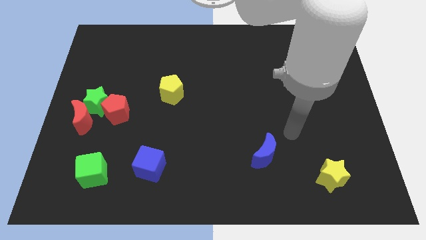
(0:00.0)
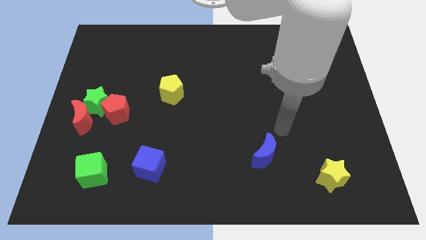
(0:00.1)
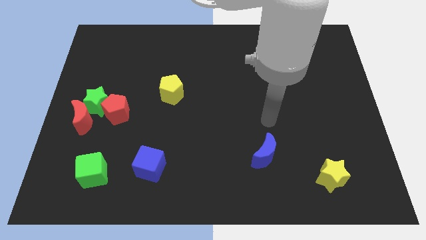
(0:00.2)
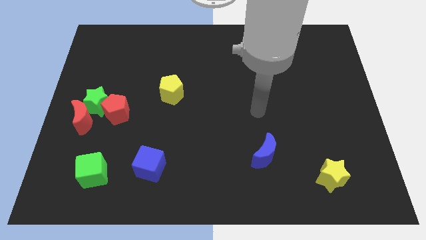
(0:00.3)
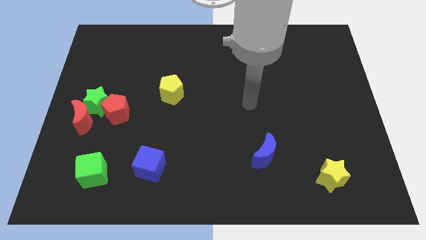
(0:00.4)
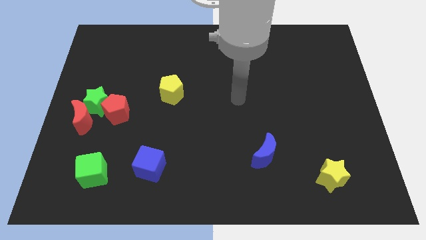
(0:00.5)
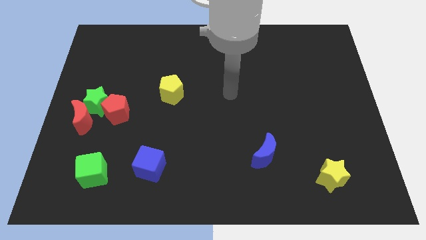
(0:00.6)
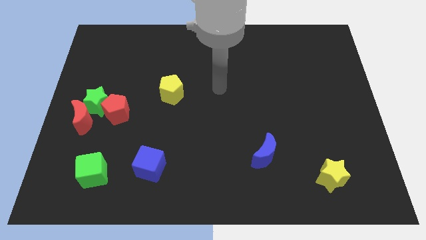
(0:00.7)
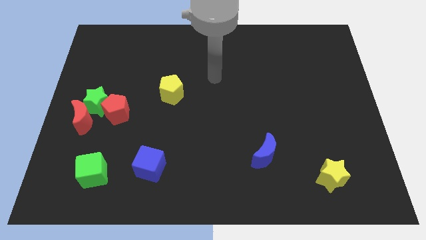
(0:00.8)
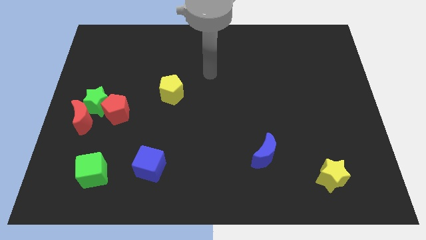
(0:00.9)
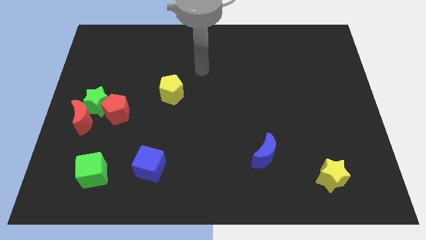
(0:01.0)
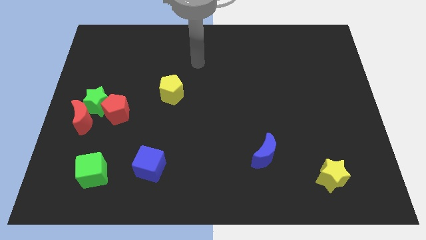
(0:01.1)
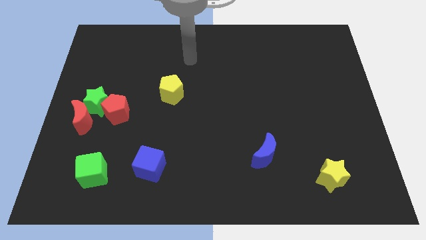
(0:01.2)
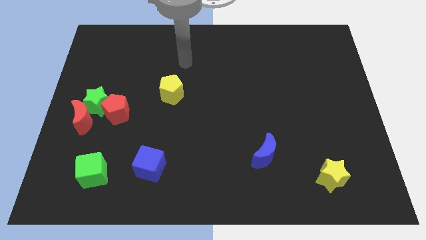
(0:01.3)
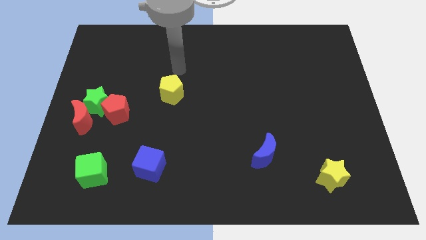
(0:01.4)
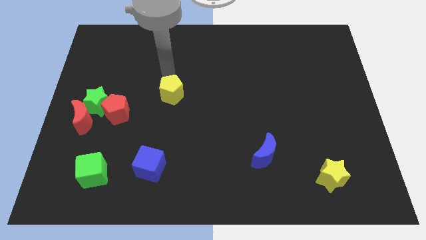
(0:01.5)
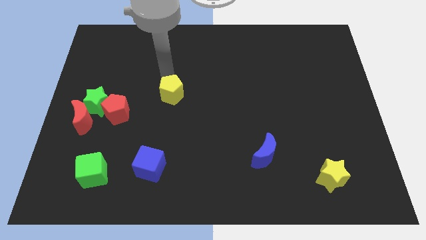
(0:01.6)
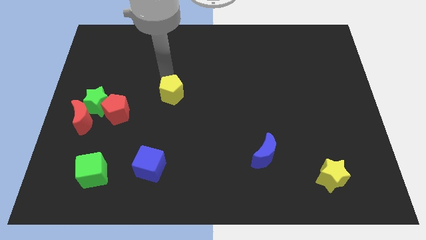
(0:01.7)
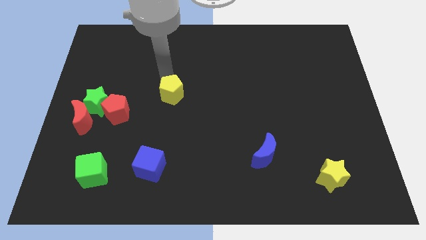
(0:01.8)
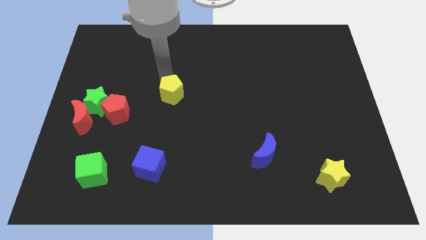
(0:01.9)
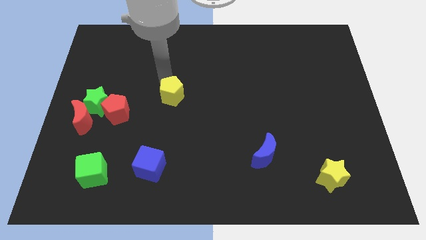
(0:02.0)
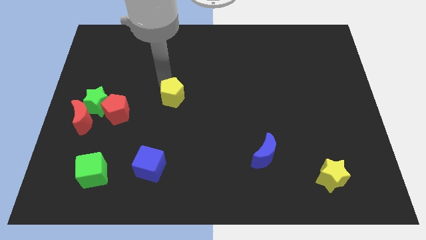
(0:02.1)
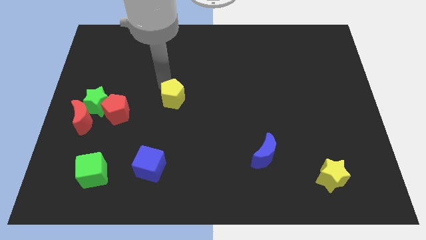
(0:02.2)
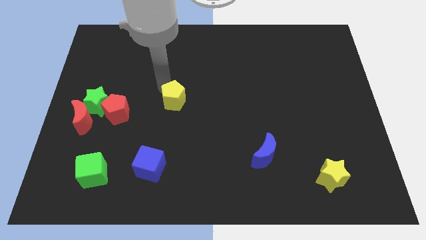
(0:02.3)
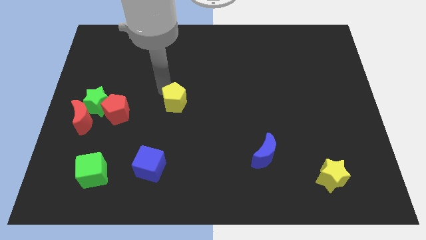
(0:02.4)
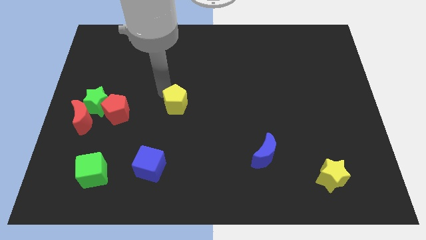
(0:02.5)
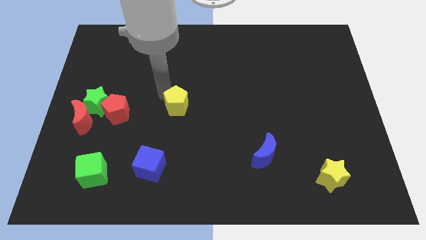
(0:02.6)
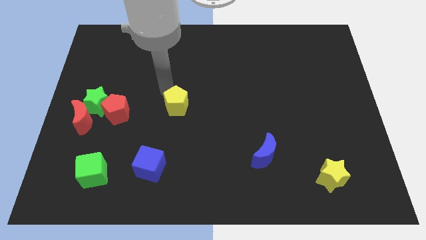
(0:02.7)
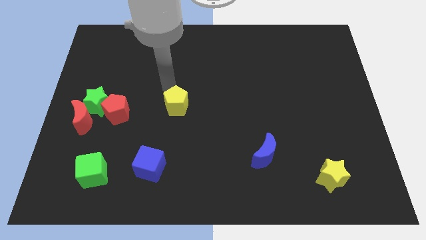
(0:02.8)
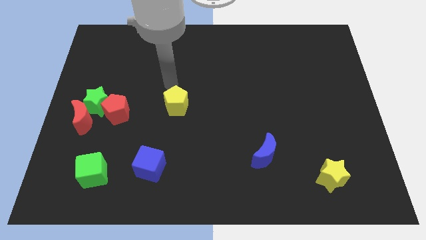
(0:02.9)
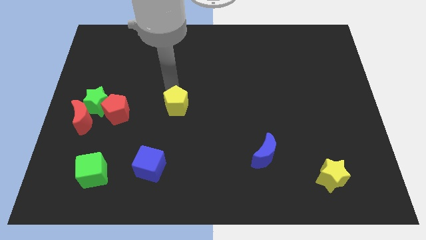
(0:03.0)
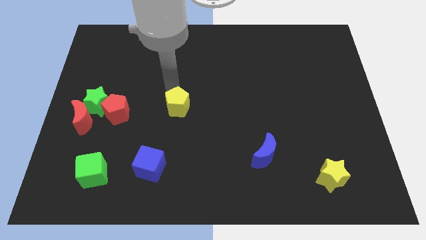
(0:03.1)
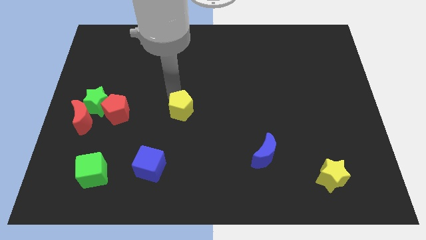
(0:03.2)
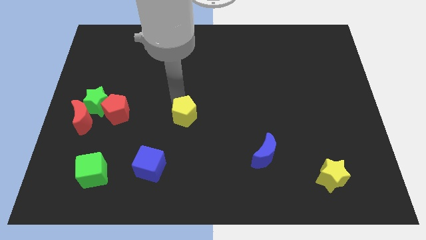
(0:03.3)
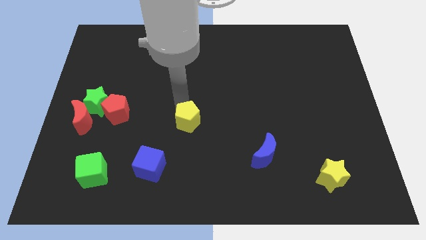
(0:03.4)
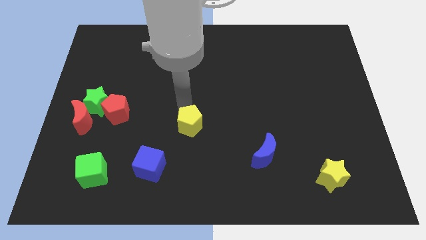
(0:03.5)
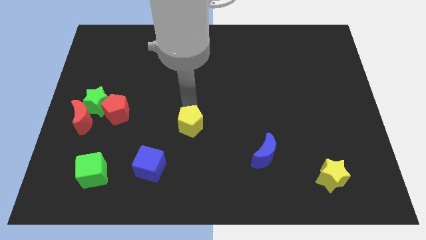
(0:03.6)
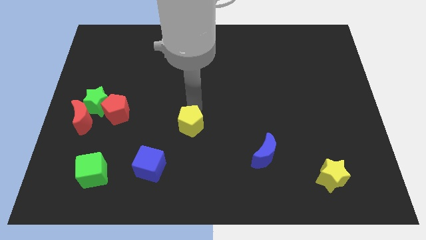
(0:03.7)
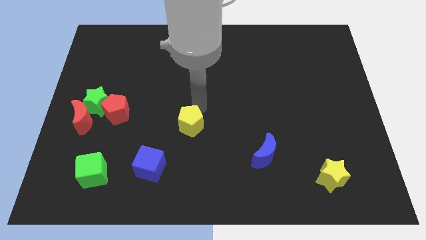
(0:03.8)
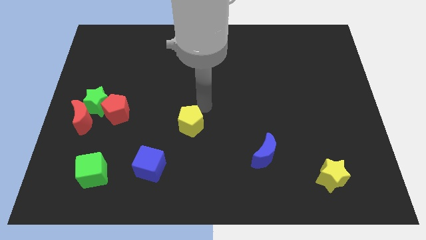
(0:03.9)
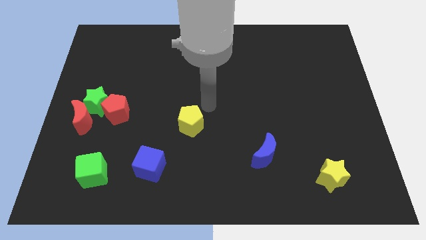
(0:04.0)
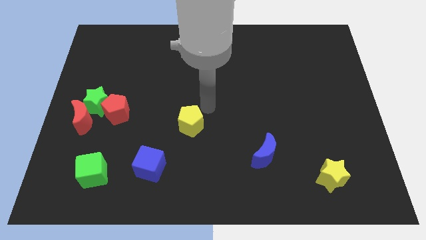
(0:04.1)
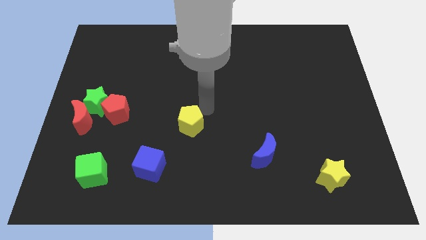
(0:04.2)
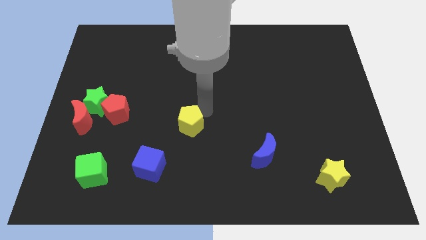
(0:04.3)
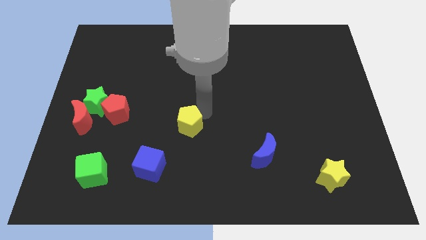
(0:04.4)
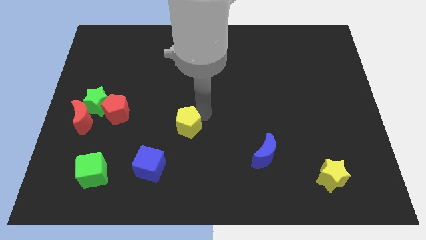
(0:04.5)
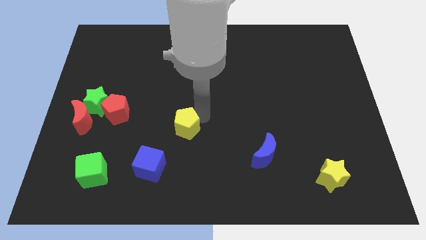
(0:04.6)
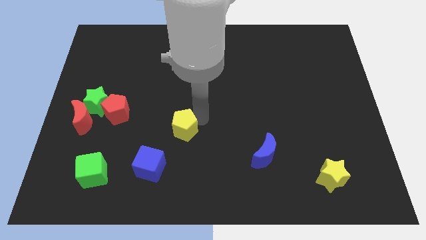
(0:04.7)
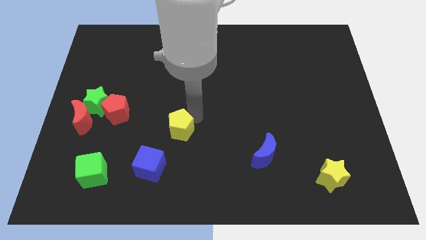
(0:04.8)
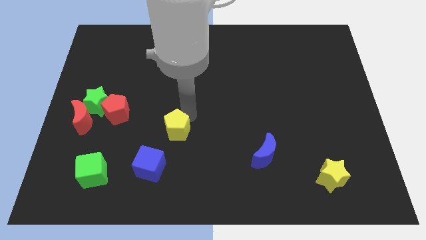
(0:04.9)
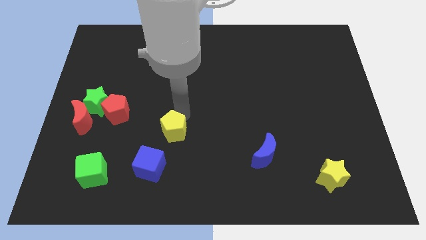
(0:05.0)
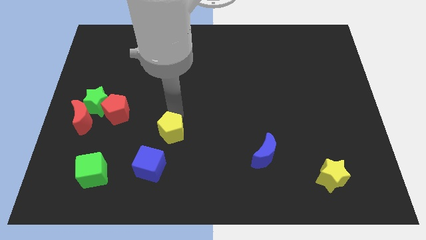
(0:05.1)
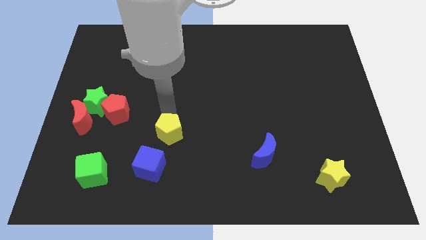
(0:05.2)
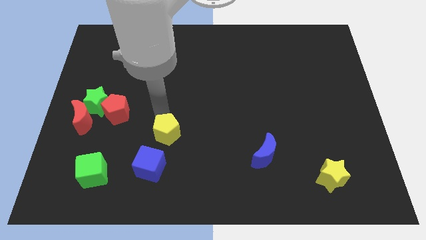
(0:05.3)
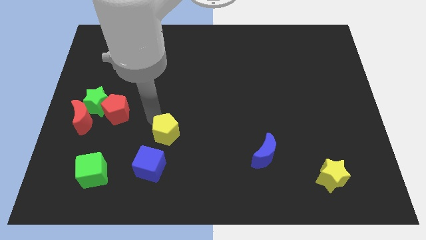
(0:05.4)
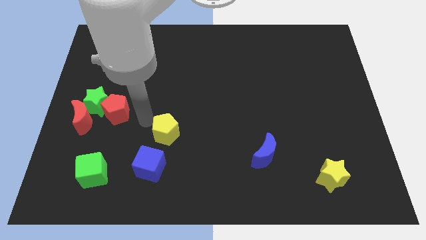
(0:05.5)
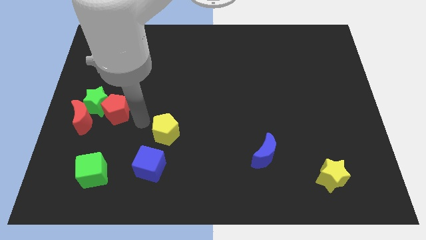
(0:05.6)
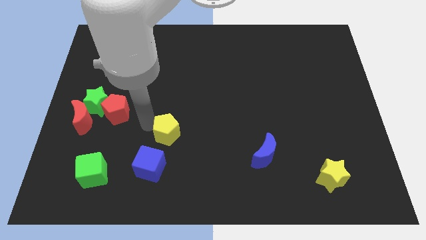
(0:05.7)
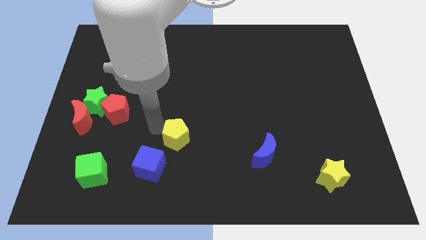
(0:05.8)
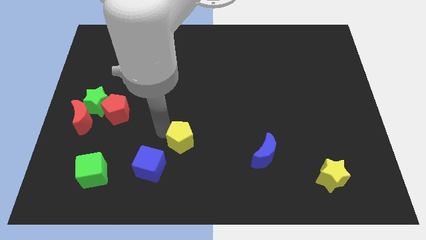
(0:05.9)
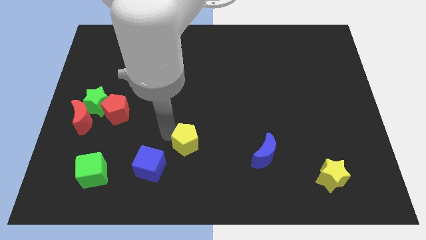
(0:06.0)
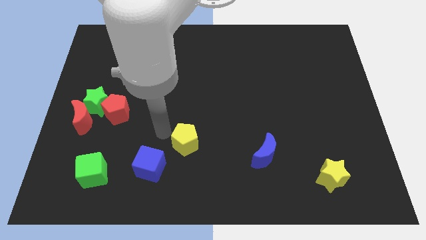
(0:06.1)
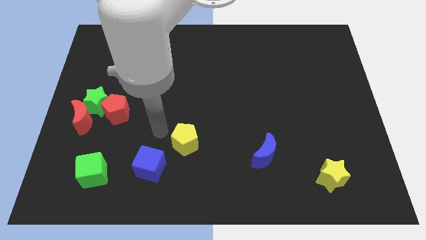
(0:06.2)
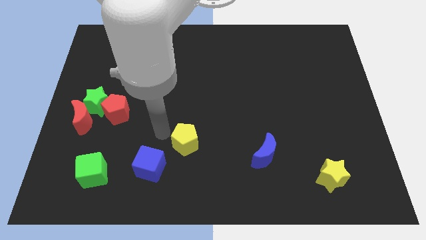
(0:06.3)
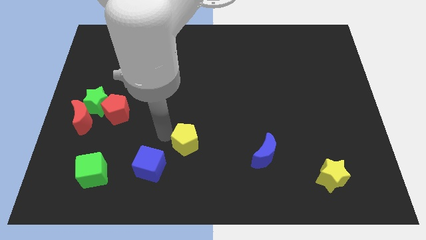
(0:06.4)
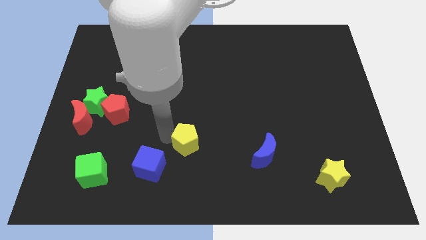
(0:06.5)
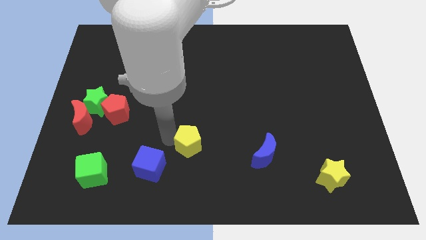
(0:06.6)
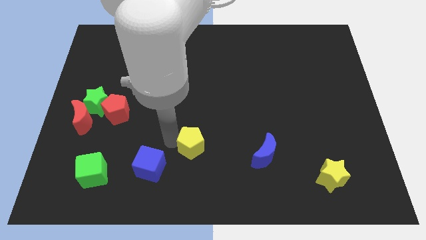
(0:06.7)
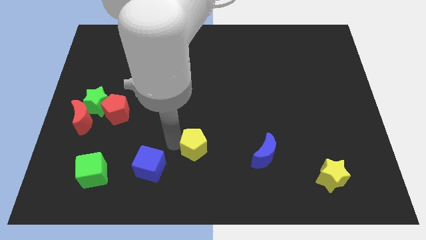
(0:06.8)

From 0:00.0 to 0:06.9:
slide the yellow pentagon to the left of the blue moon

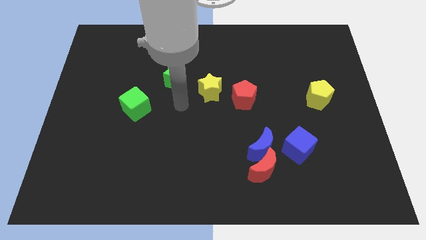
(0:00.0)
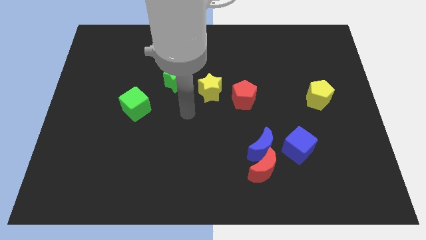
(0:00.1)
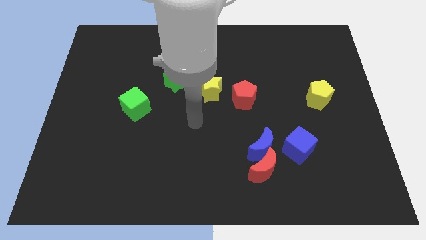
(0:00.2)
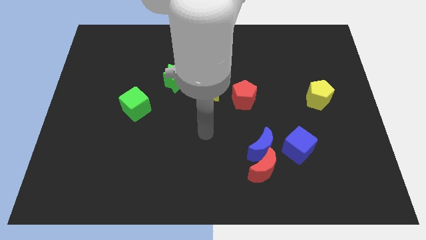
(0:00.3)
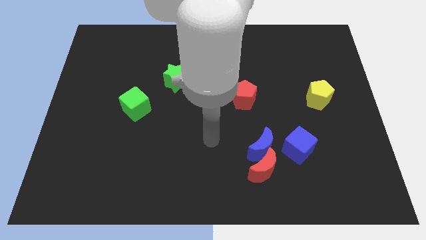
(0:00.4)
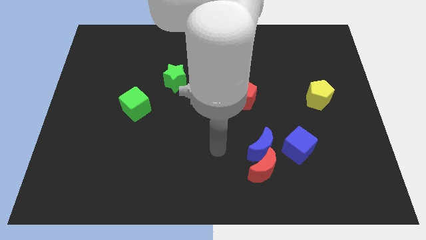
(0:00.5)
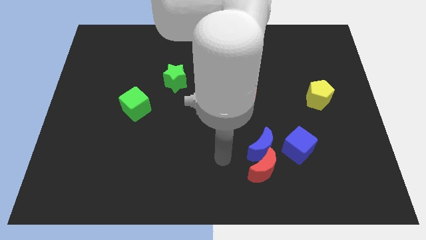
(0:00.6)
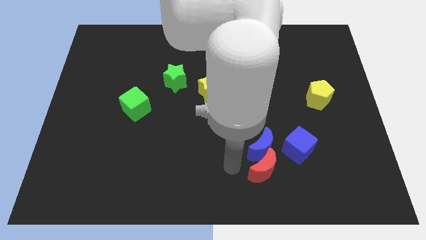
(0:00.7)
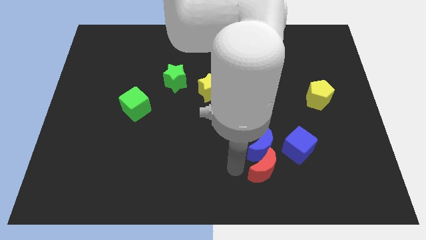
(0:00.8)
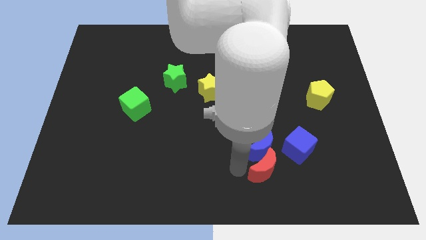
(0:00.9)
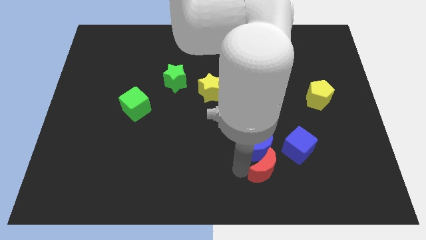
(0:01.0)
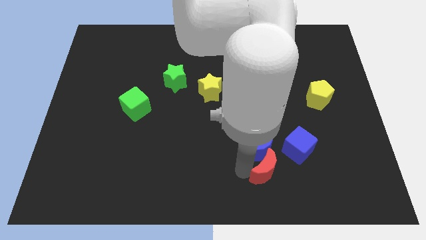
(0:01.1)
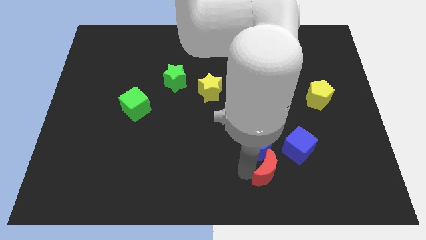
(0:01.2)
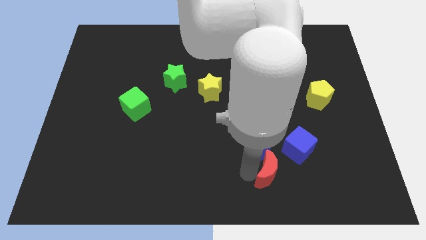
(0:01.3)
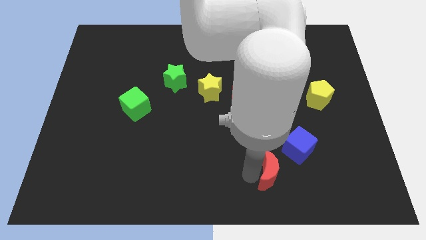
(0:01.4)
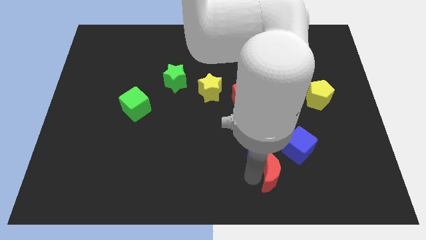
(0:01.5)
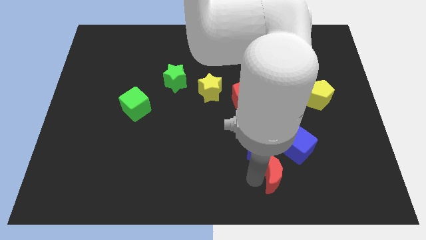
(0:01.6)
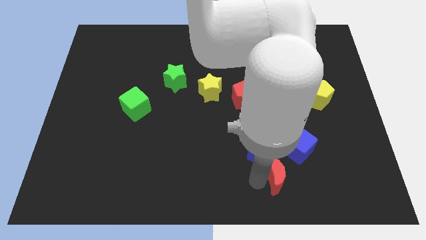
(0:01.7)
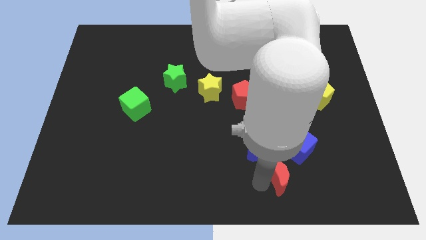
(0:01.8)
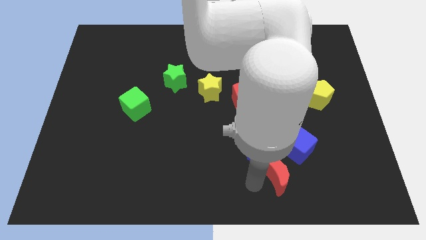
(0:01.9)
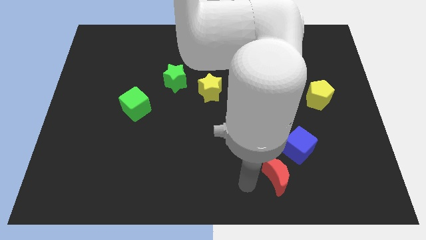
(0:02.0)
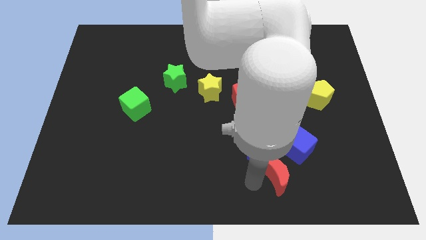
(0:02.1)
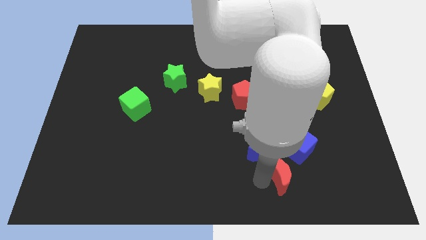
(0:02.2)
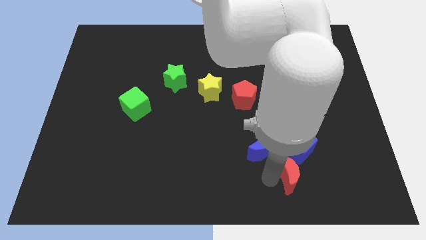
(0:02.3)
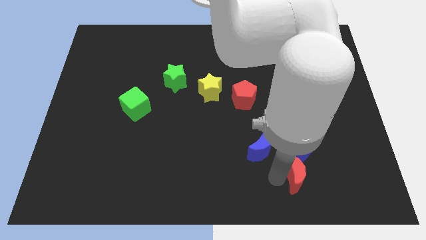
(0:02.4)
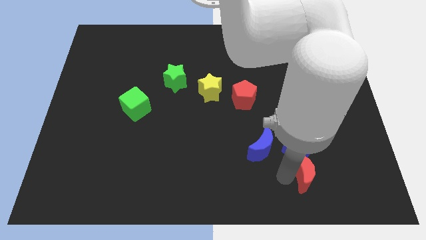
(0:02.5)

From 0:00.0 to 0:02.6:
move the red moon to the bottom right of the blue cube
